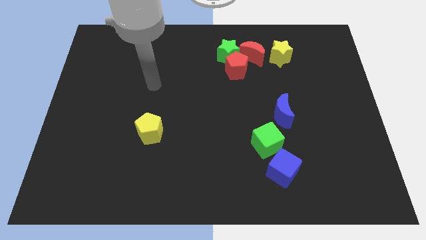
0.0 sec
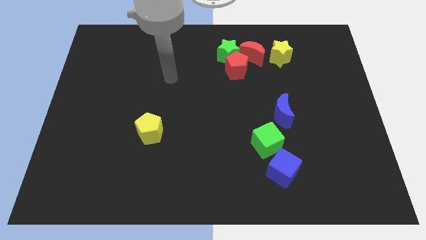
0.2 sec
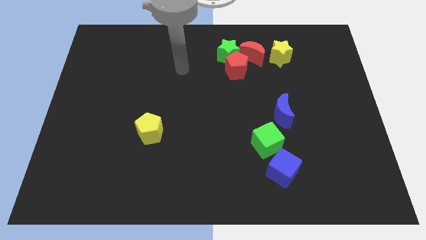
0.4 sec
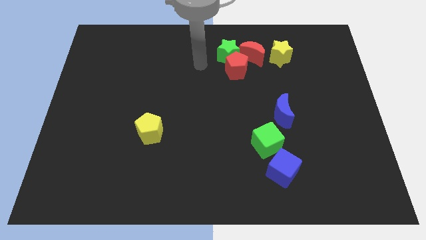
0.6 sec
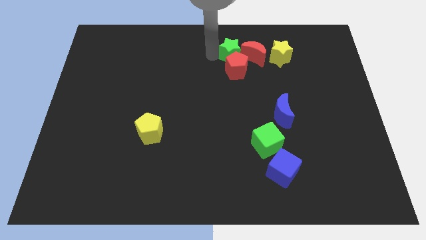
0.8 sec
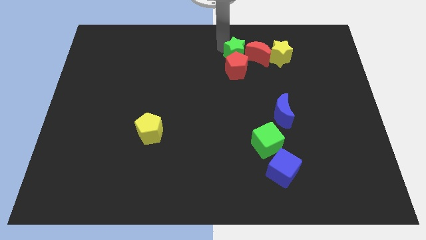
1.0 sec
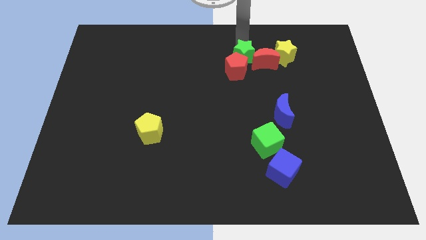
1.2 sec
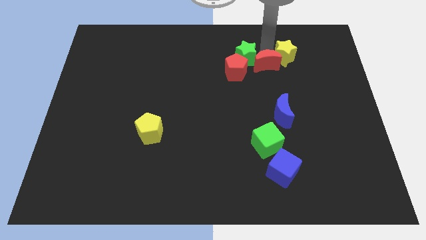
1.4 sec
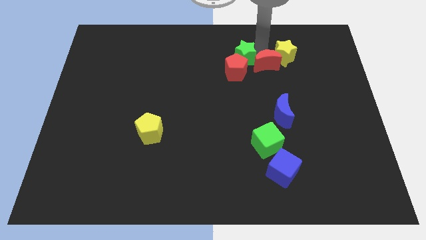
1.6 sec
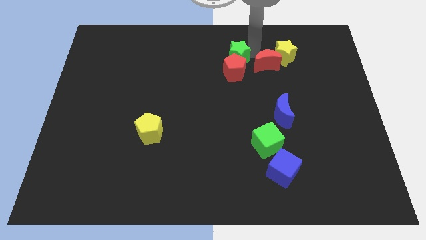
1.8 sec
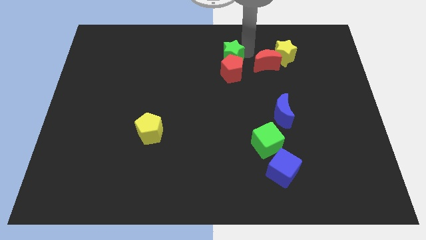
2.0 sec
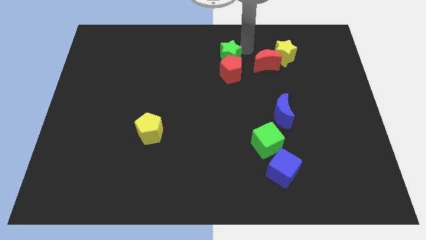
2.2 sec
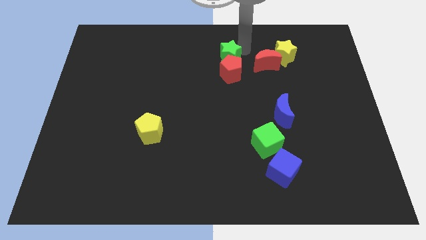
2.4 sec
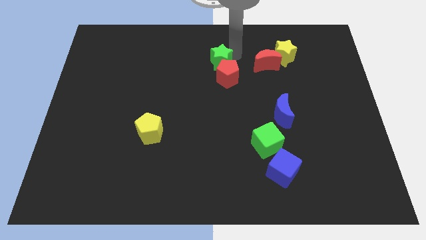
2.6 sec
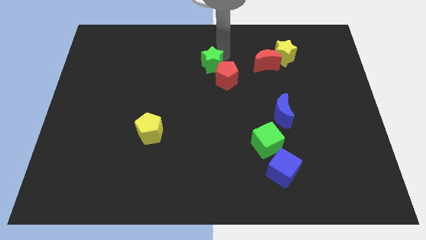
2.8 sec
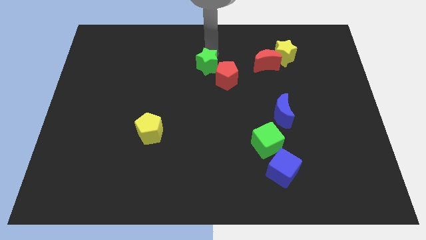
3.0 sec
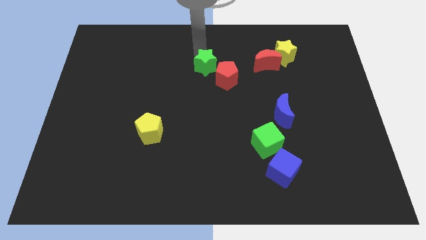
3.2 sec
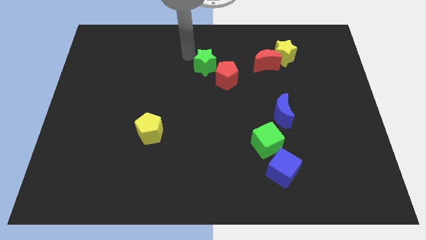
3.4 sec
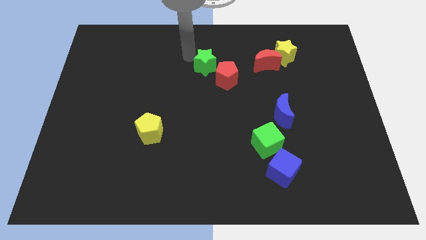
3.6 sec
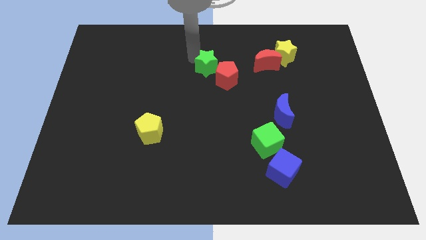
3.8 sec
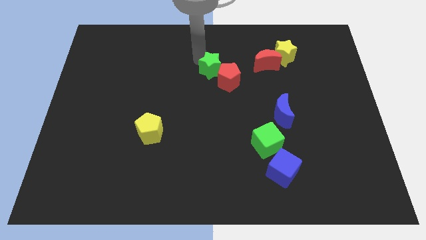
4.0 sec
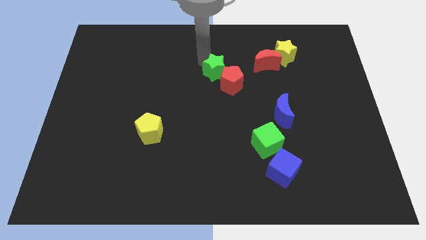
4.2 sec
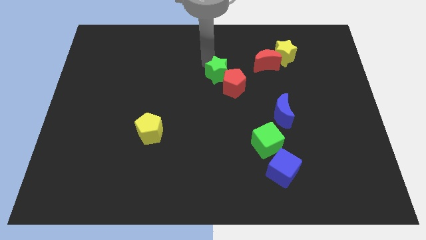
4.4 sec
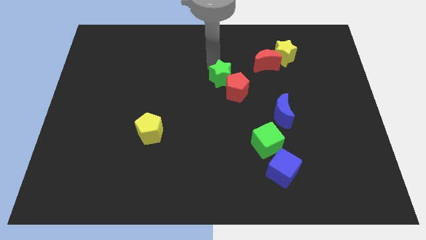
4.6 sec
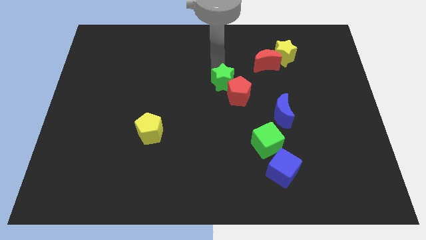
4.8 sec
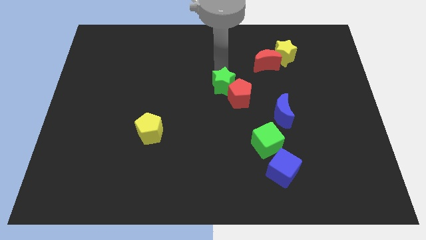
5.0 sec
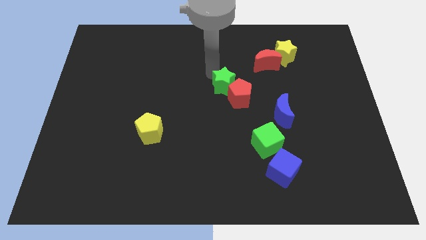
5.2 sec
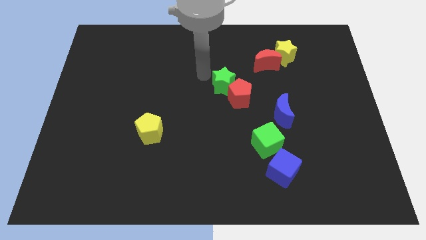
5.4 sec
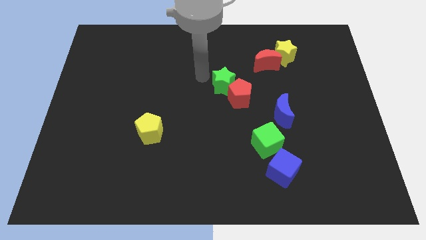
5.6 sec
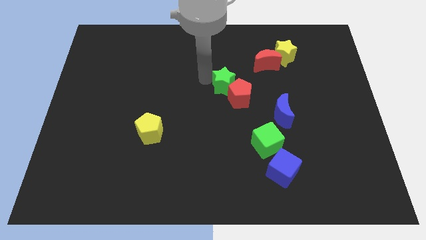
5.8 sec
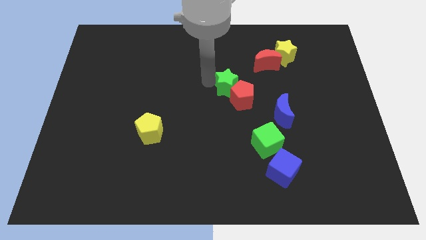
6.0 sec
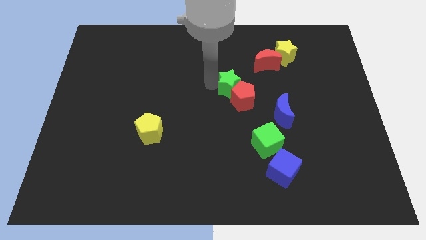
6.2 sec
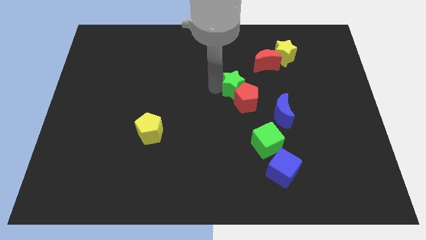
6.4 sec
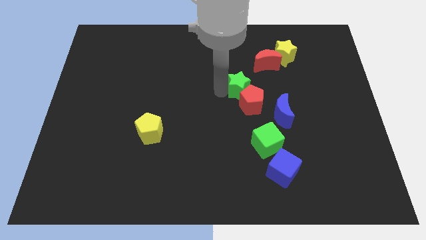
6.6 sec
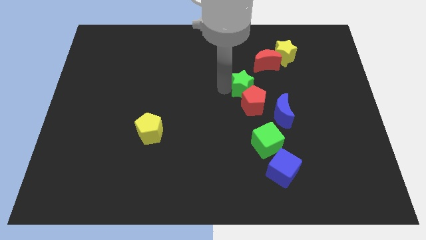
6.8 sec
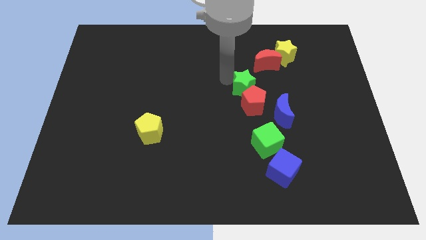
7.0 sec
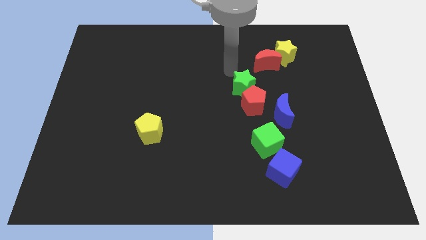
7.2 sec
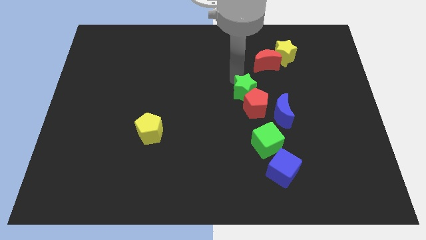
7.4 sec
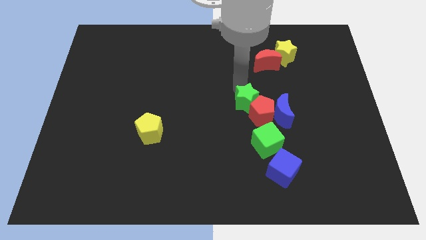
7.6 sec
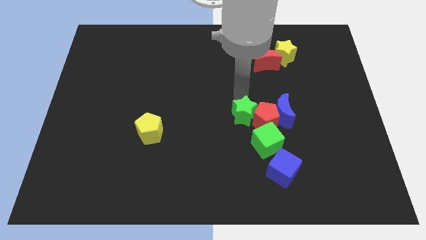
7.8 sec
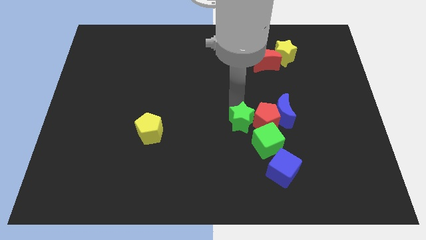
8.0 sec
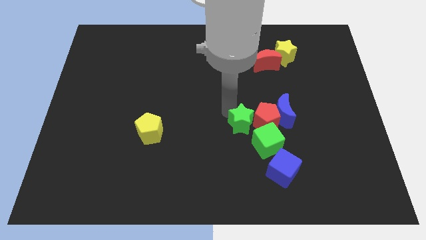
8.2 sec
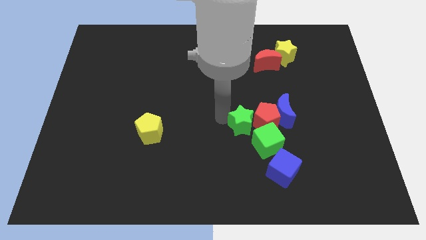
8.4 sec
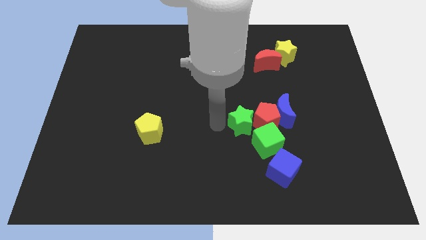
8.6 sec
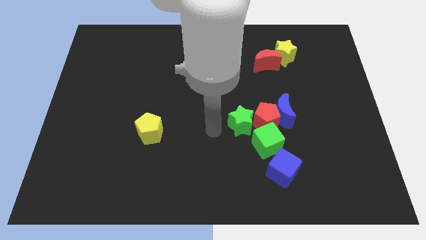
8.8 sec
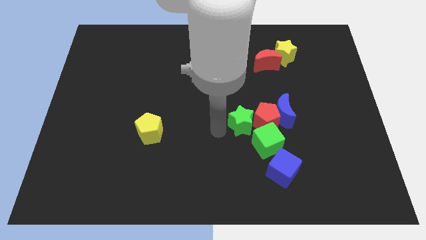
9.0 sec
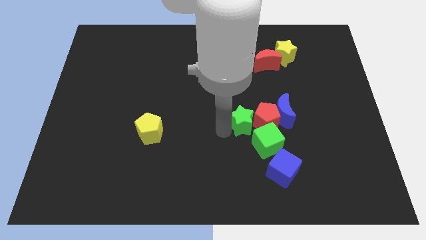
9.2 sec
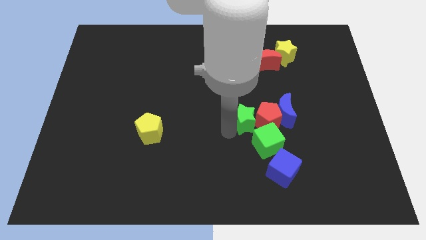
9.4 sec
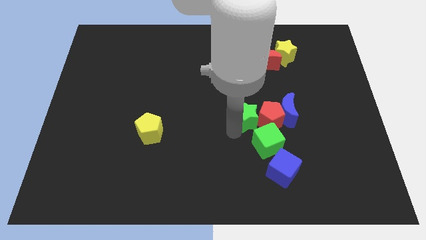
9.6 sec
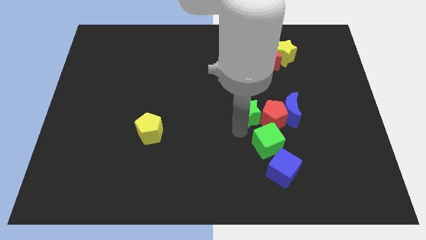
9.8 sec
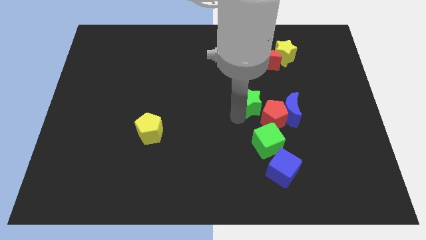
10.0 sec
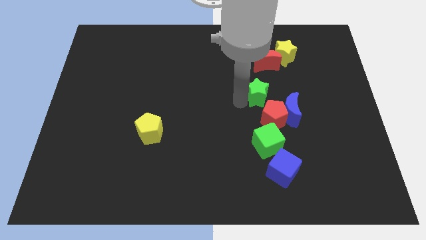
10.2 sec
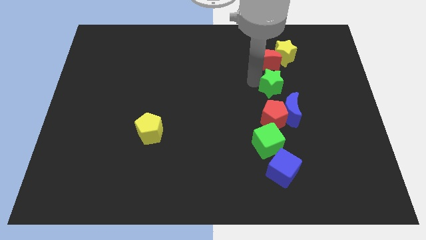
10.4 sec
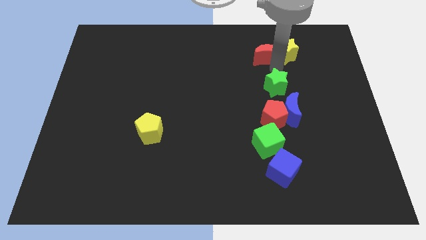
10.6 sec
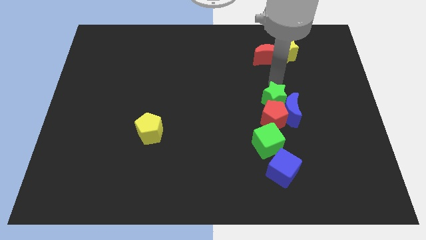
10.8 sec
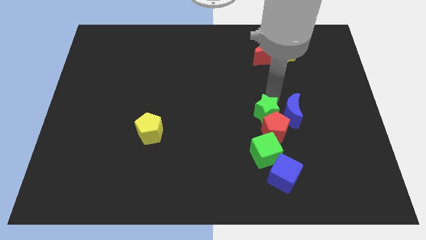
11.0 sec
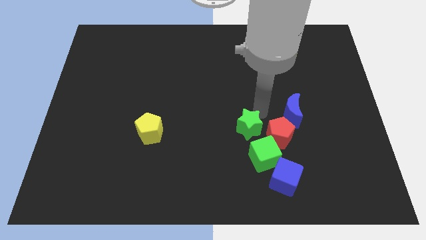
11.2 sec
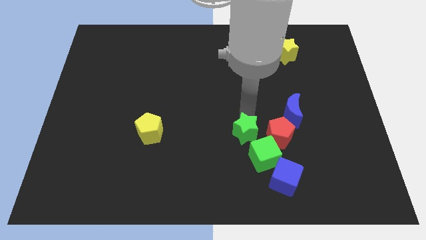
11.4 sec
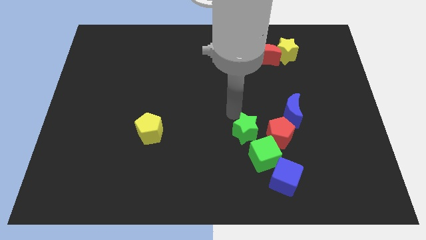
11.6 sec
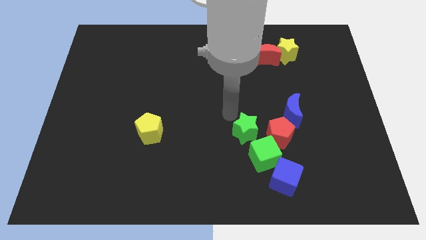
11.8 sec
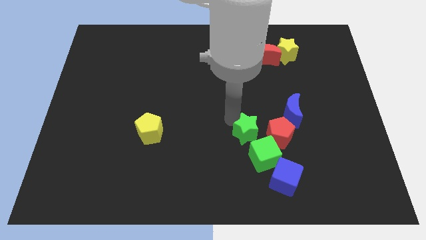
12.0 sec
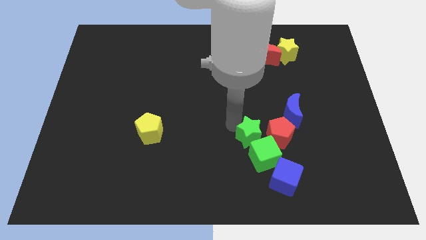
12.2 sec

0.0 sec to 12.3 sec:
push the green star towards the green cube

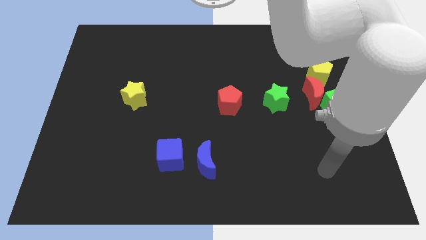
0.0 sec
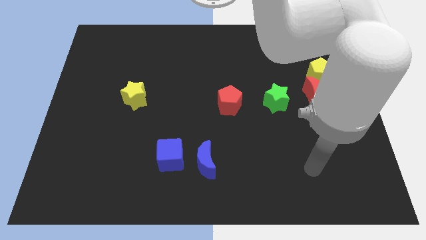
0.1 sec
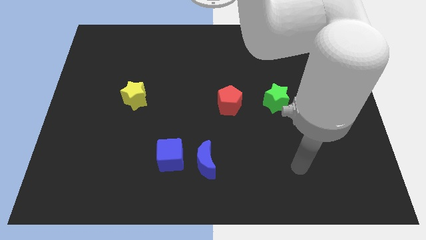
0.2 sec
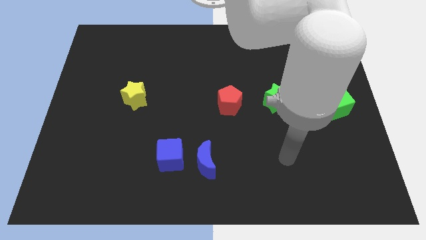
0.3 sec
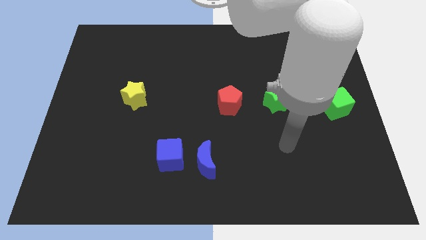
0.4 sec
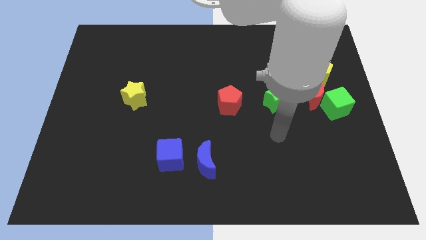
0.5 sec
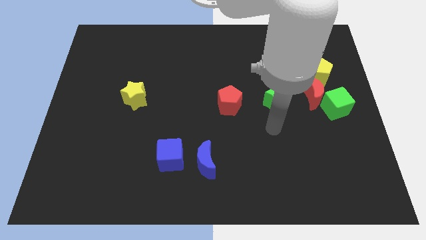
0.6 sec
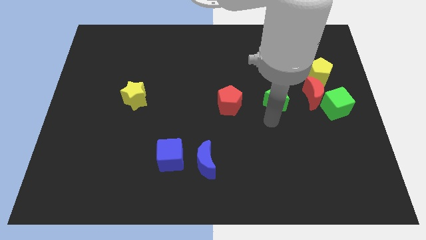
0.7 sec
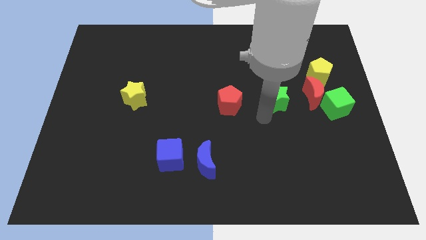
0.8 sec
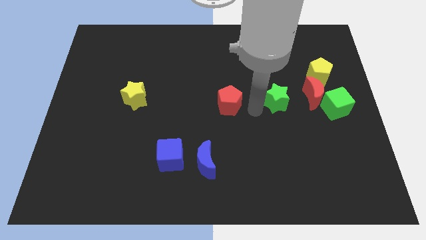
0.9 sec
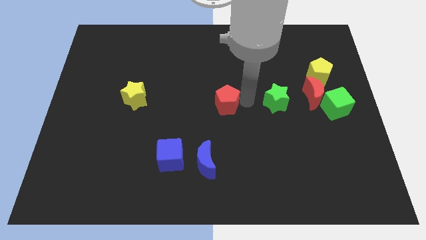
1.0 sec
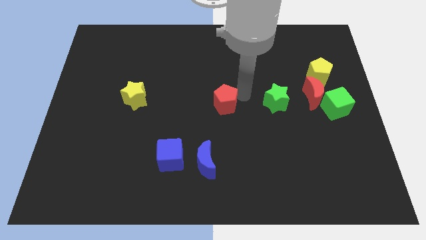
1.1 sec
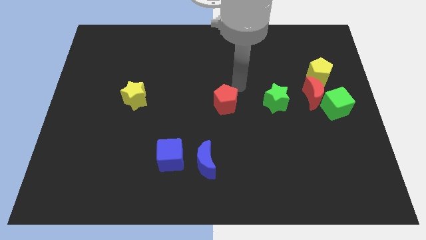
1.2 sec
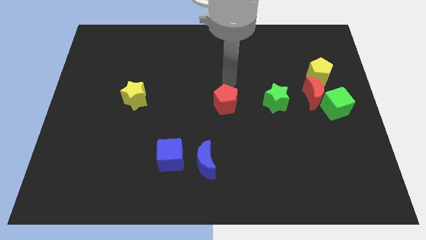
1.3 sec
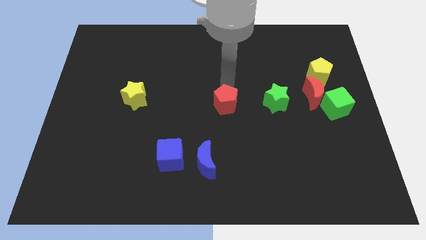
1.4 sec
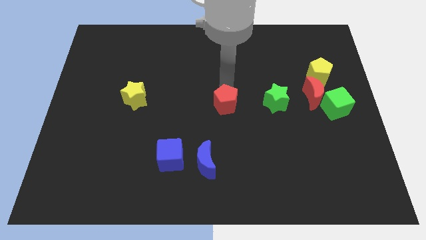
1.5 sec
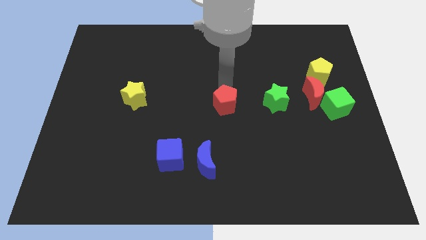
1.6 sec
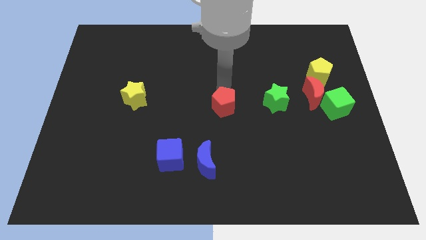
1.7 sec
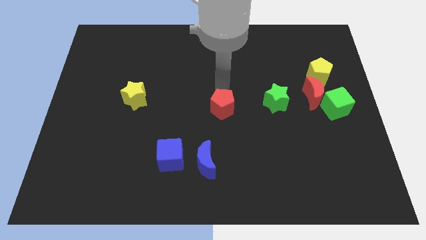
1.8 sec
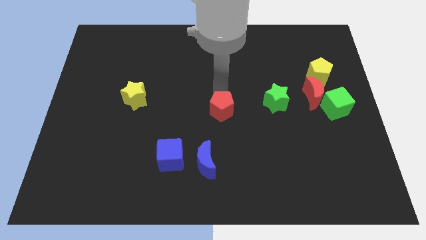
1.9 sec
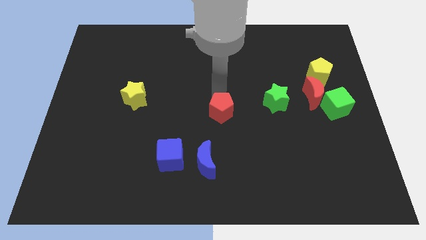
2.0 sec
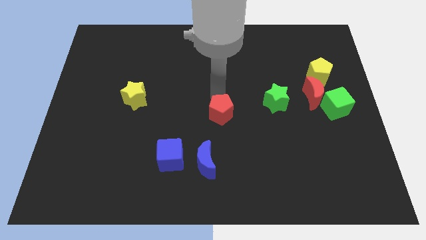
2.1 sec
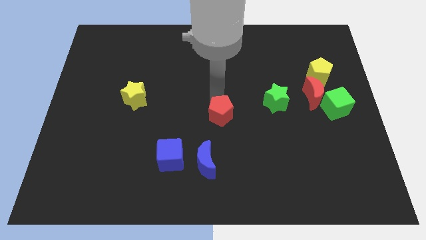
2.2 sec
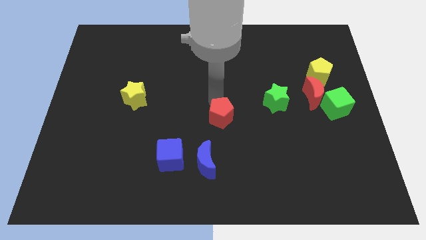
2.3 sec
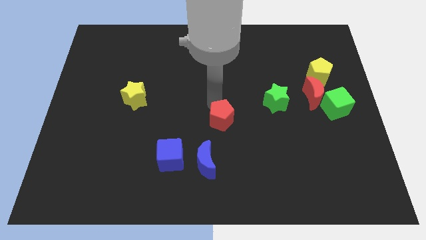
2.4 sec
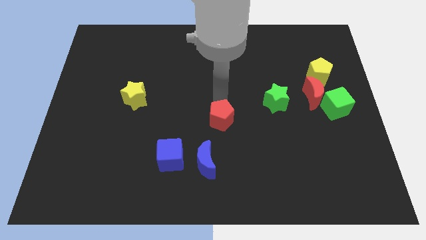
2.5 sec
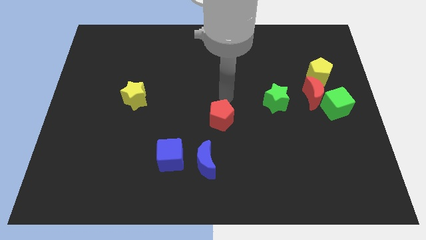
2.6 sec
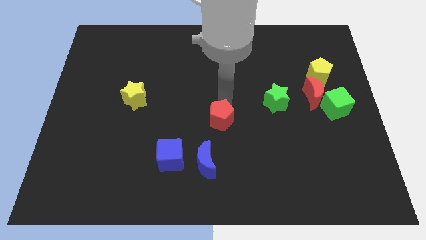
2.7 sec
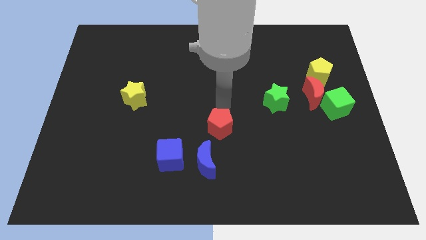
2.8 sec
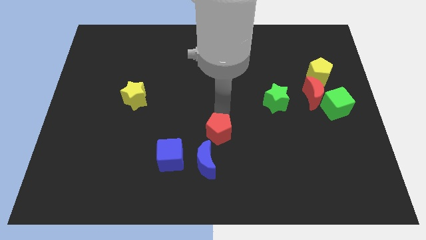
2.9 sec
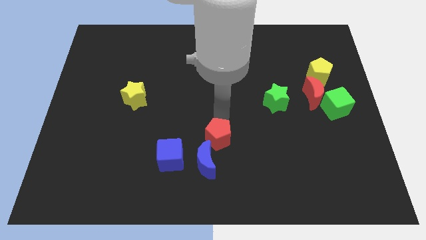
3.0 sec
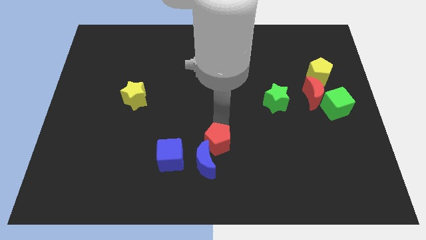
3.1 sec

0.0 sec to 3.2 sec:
move the red pentagon close to the blue moon
